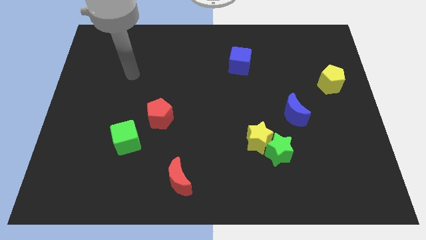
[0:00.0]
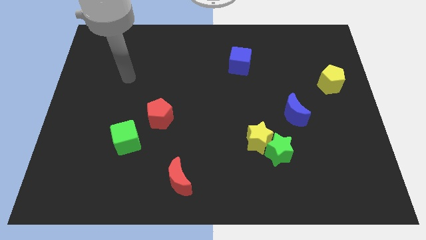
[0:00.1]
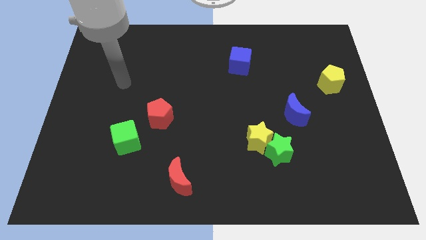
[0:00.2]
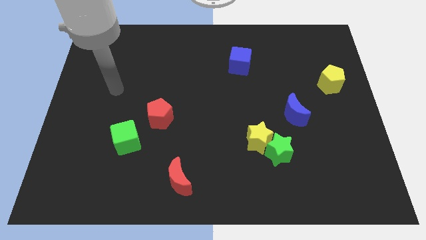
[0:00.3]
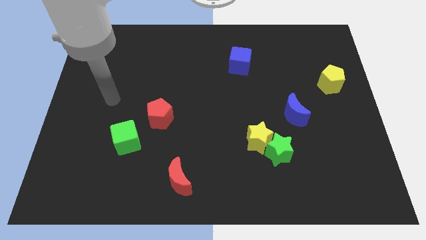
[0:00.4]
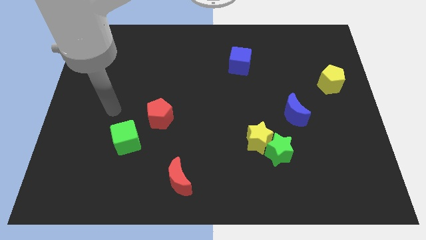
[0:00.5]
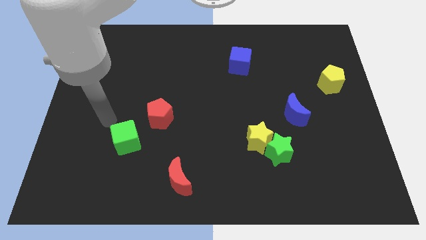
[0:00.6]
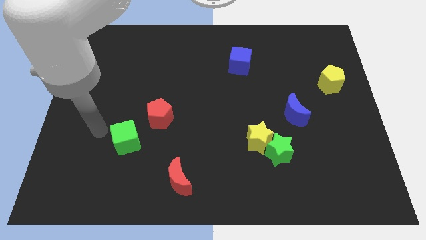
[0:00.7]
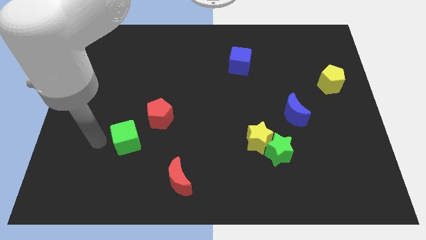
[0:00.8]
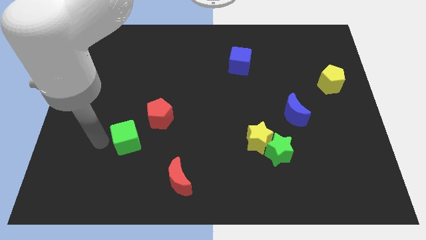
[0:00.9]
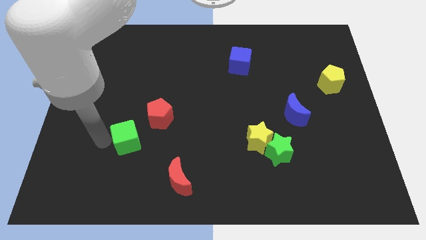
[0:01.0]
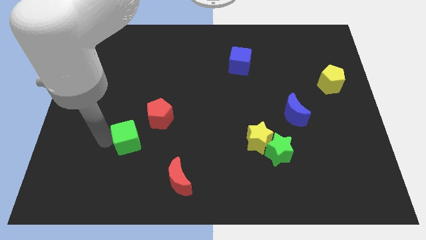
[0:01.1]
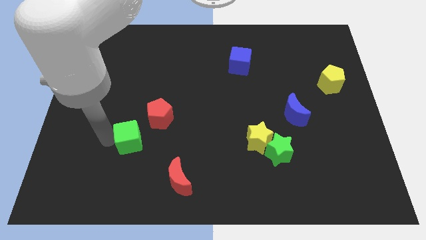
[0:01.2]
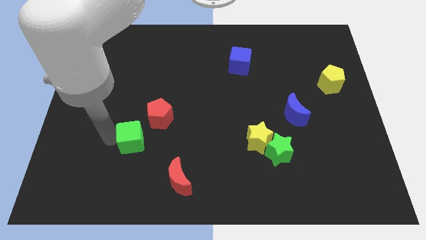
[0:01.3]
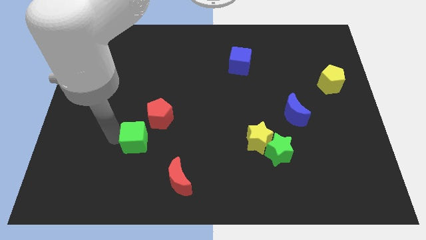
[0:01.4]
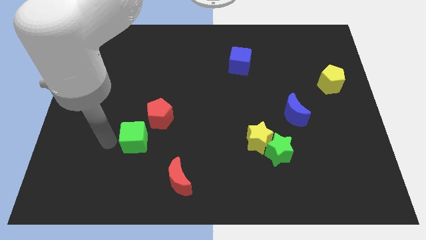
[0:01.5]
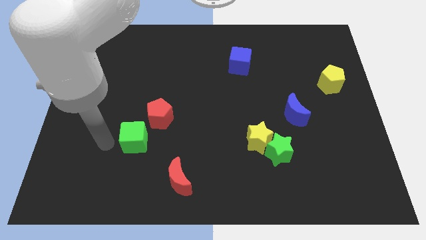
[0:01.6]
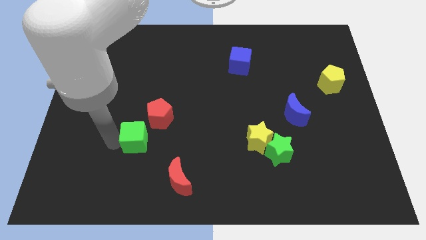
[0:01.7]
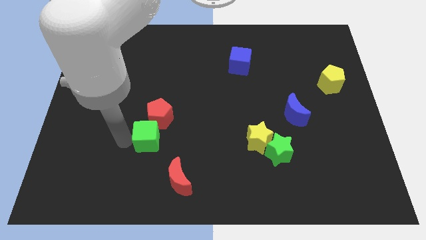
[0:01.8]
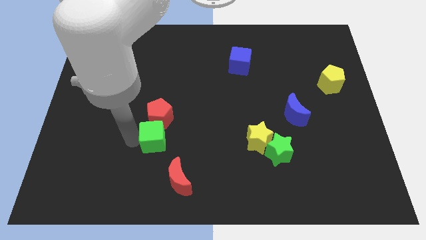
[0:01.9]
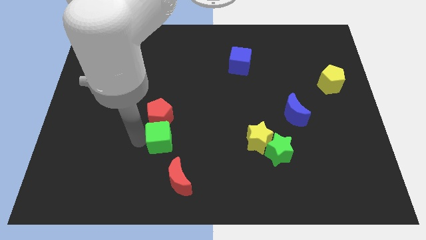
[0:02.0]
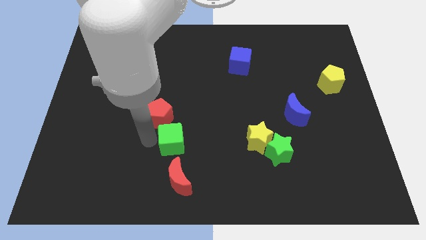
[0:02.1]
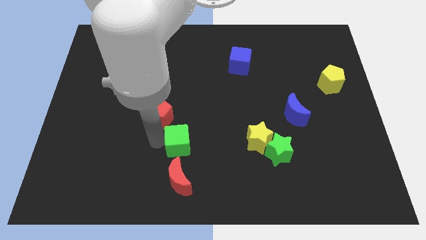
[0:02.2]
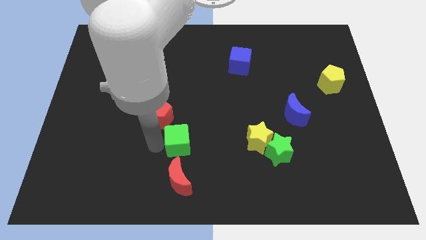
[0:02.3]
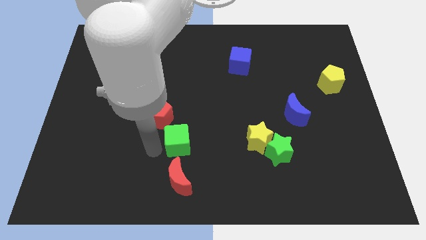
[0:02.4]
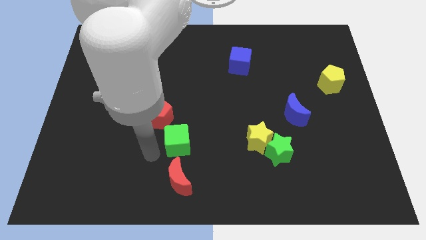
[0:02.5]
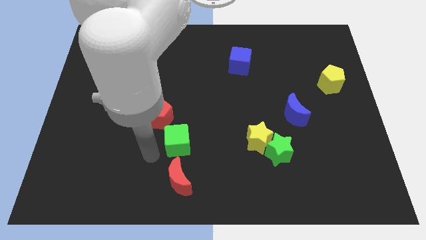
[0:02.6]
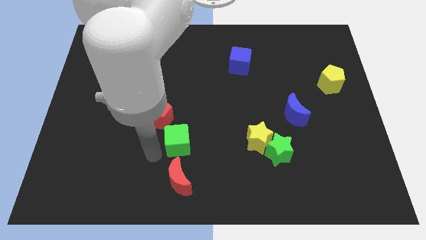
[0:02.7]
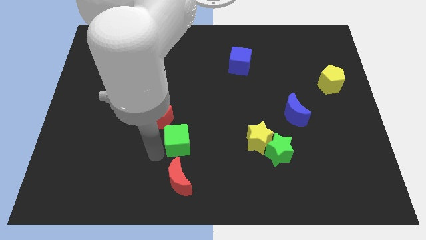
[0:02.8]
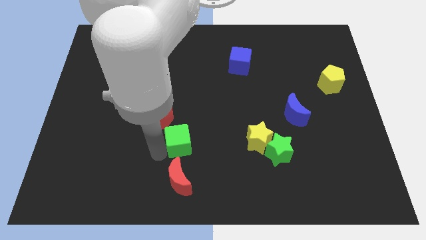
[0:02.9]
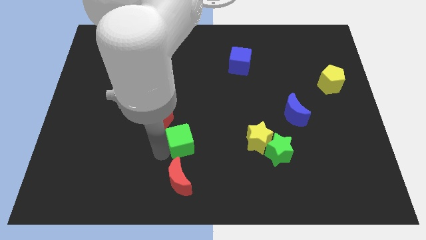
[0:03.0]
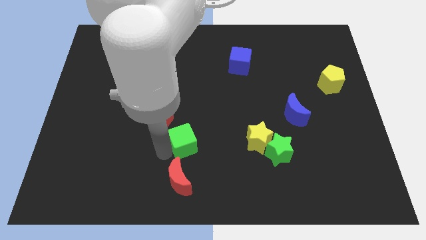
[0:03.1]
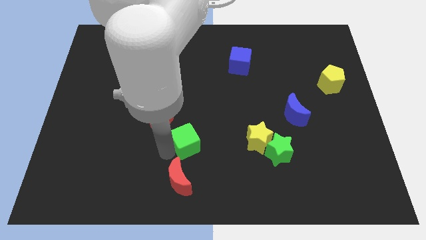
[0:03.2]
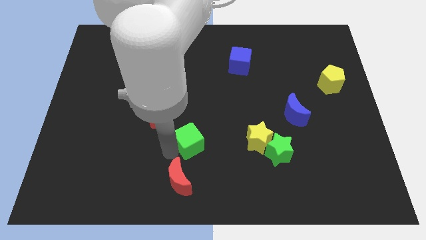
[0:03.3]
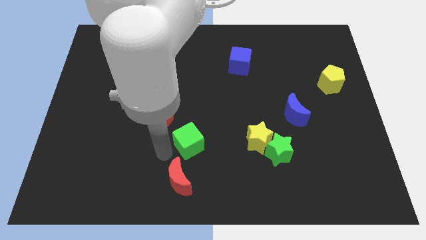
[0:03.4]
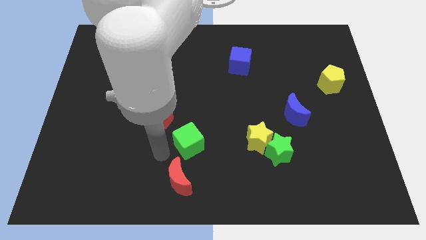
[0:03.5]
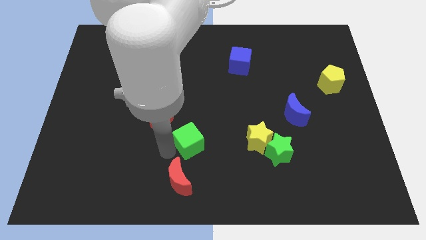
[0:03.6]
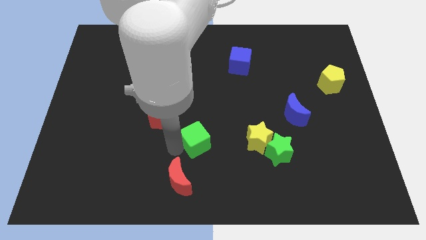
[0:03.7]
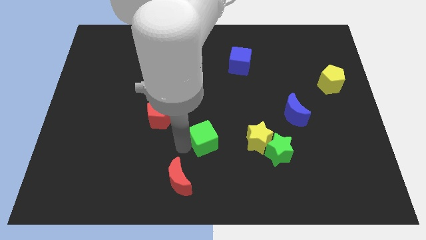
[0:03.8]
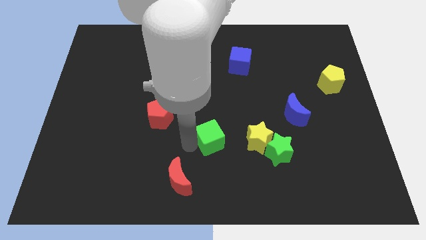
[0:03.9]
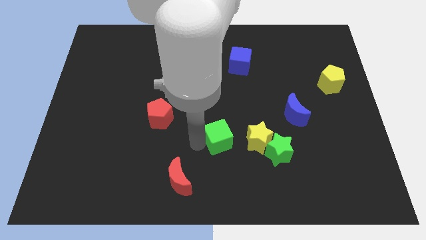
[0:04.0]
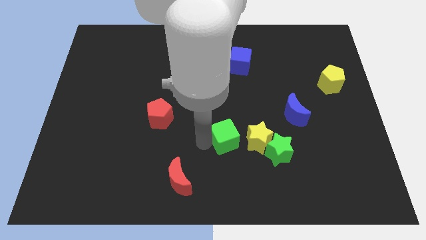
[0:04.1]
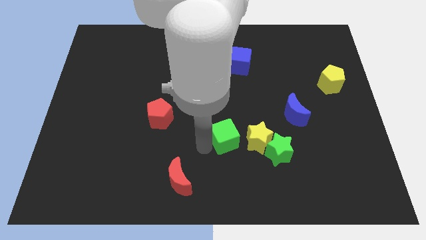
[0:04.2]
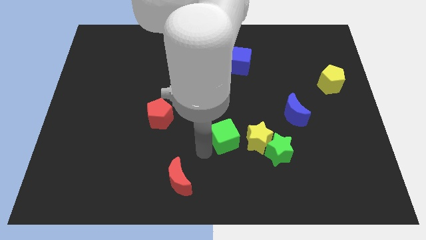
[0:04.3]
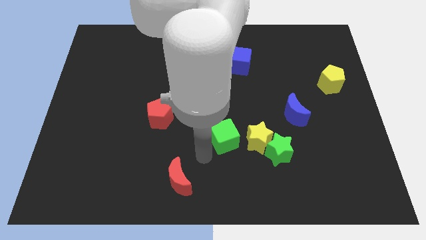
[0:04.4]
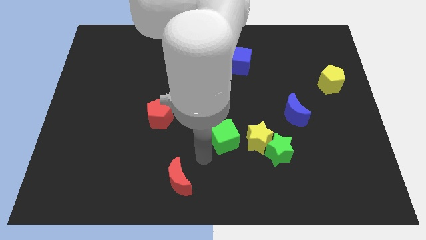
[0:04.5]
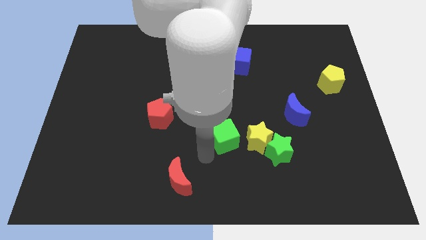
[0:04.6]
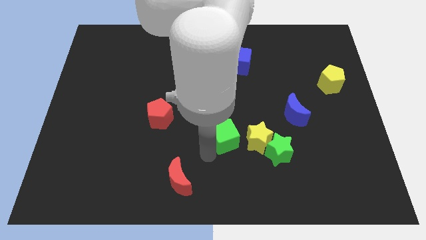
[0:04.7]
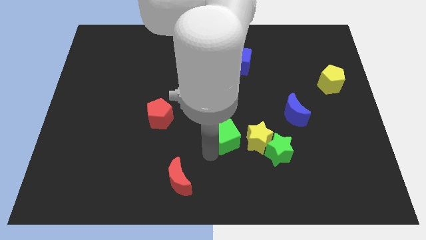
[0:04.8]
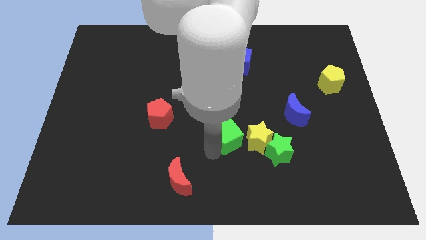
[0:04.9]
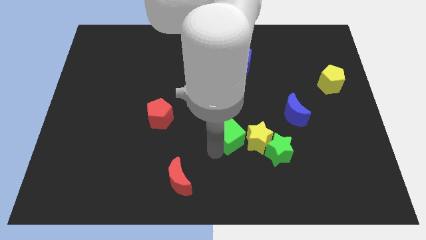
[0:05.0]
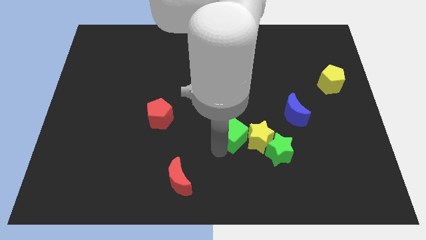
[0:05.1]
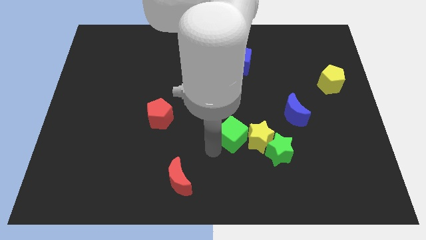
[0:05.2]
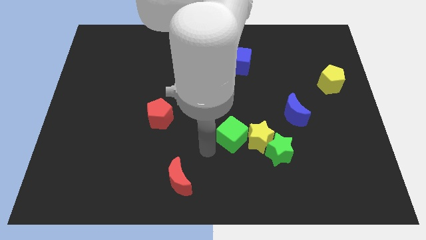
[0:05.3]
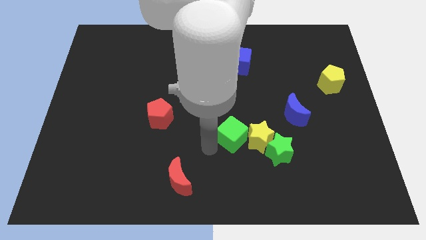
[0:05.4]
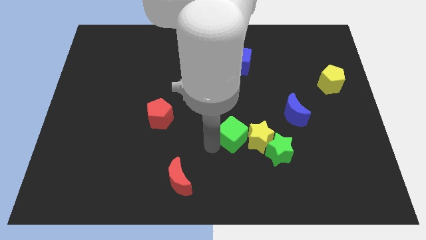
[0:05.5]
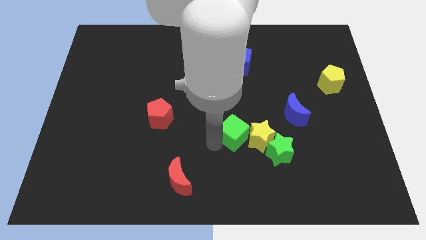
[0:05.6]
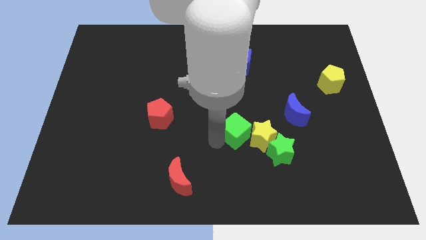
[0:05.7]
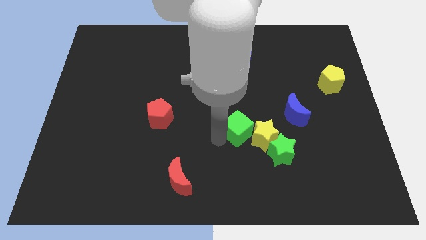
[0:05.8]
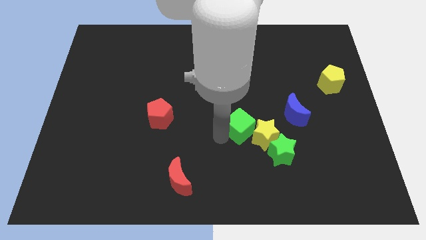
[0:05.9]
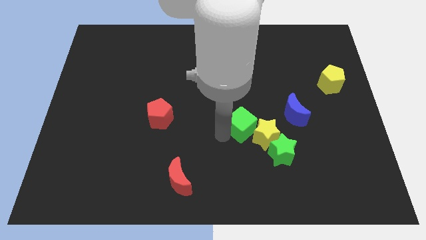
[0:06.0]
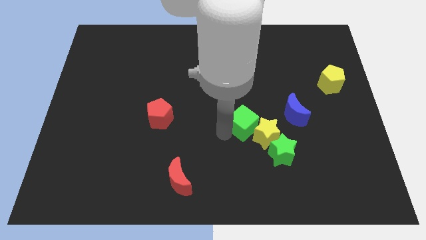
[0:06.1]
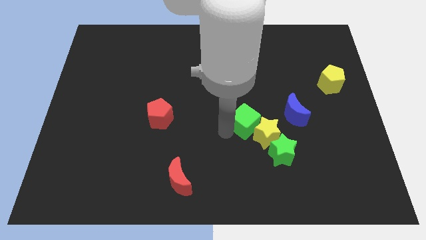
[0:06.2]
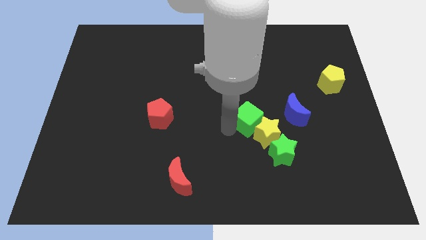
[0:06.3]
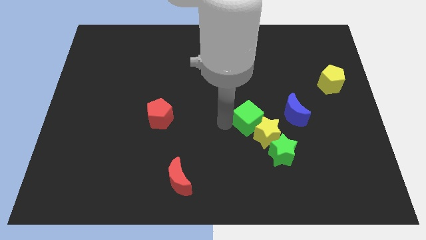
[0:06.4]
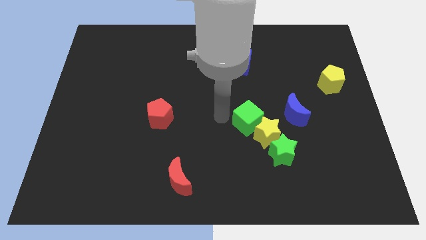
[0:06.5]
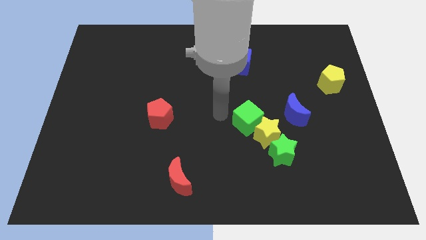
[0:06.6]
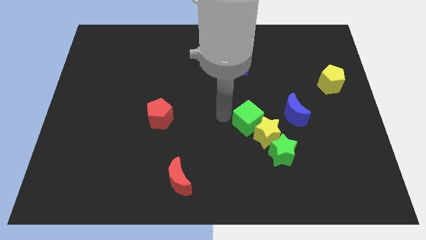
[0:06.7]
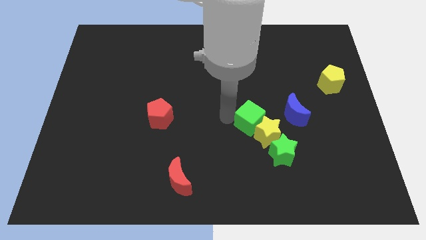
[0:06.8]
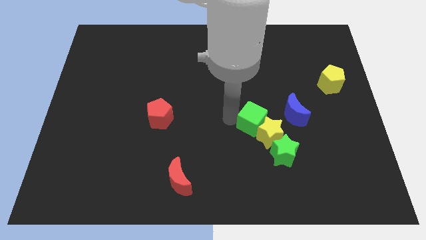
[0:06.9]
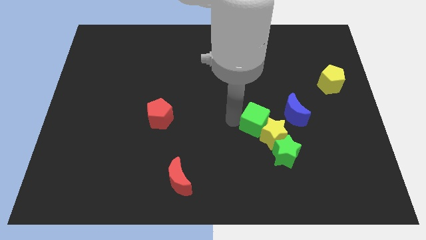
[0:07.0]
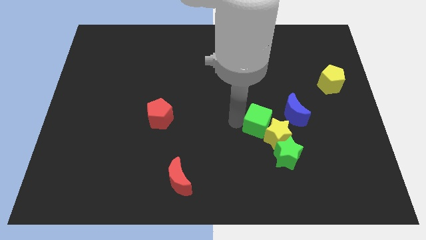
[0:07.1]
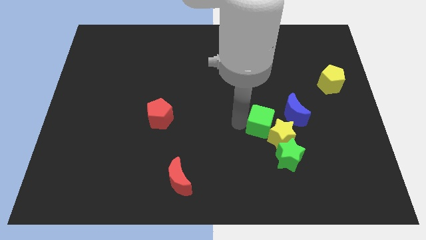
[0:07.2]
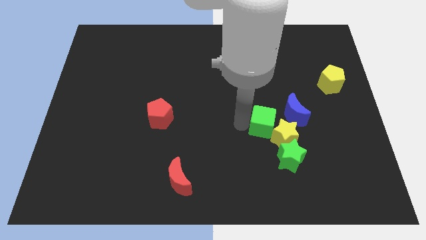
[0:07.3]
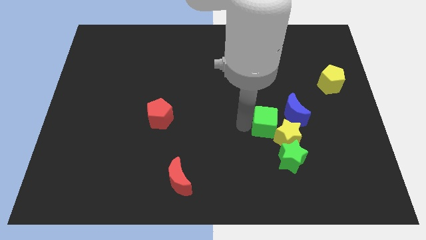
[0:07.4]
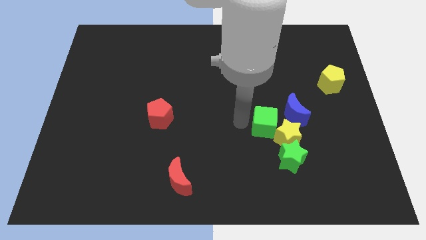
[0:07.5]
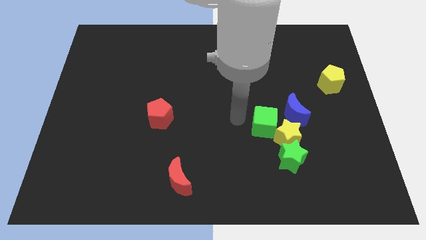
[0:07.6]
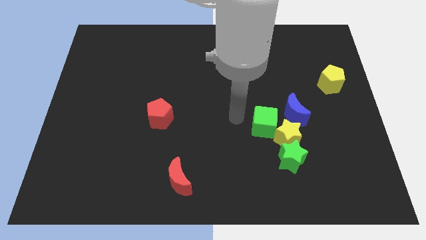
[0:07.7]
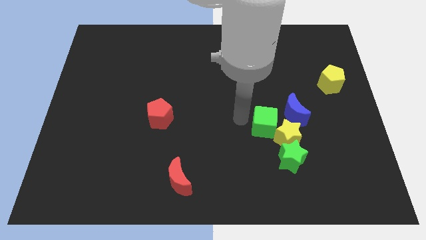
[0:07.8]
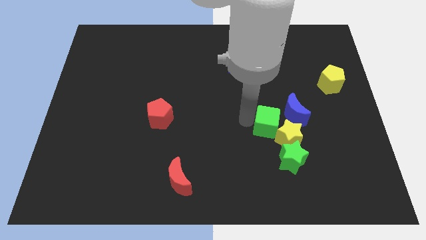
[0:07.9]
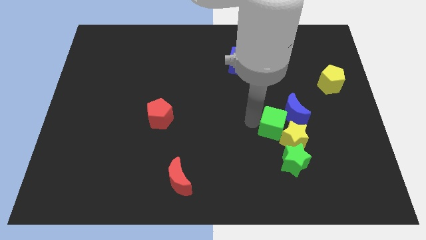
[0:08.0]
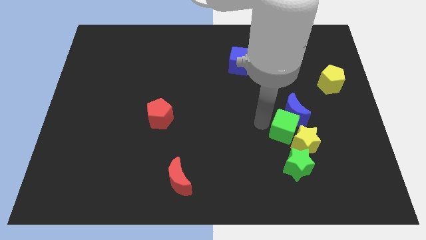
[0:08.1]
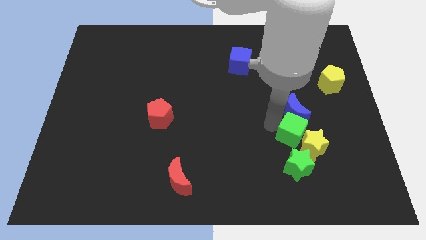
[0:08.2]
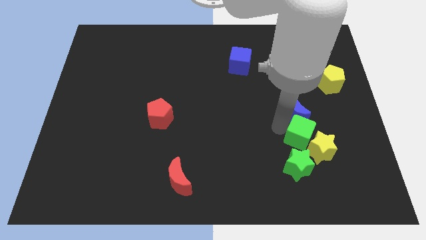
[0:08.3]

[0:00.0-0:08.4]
put the green cube diagonally up and to the right of the green star
